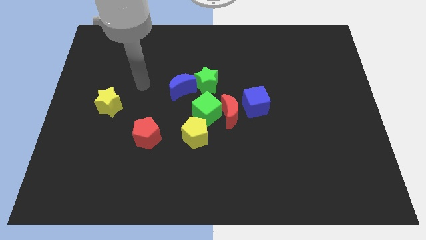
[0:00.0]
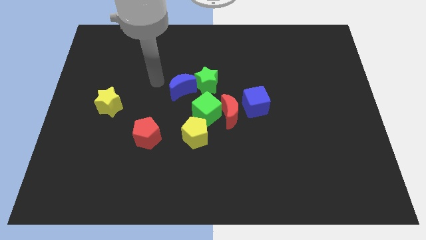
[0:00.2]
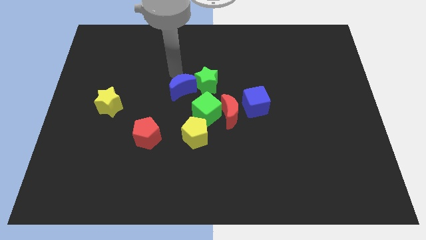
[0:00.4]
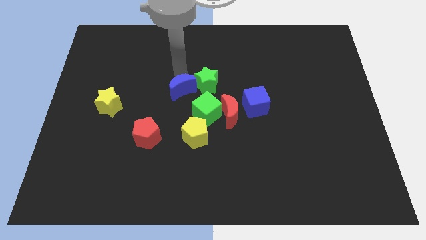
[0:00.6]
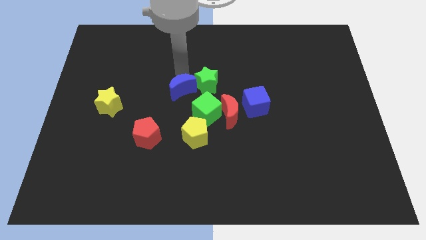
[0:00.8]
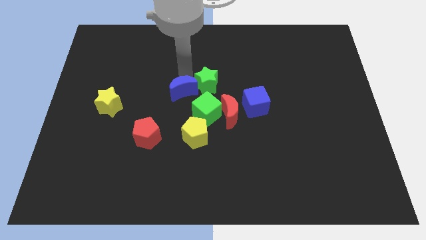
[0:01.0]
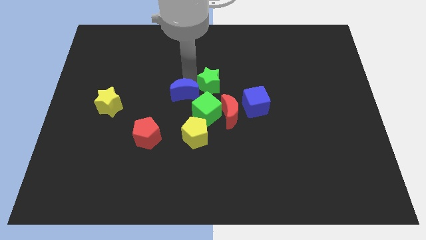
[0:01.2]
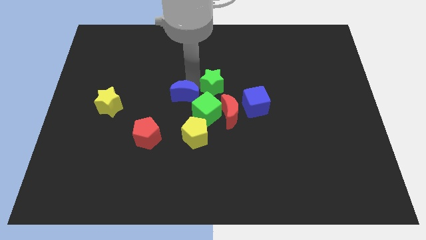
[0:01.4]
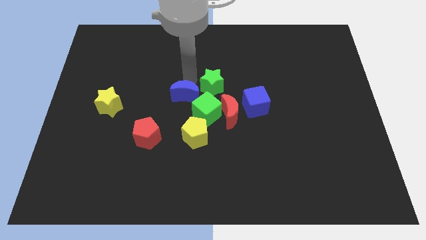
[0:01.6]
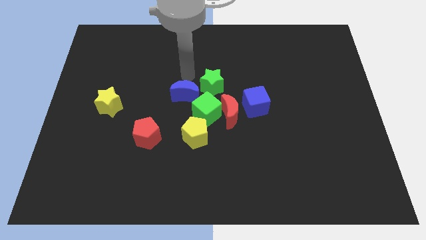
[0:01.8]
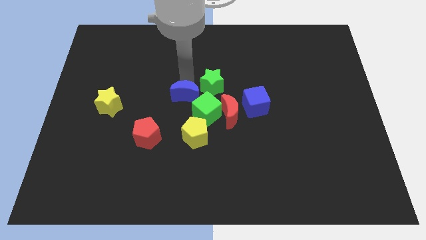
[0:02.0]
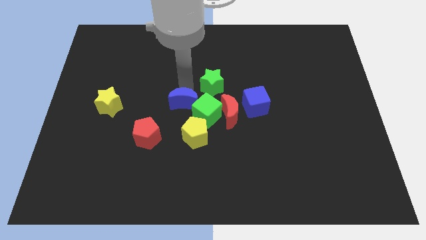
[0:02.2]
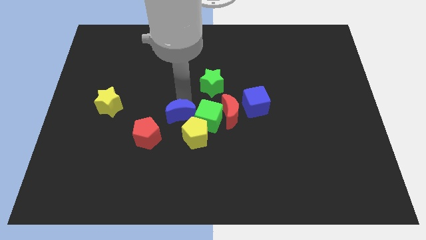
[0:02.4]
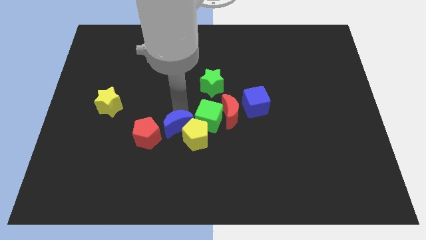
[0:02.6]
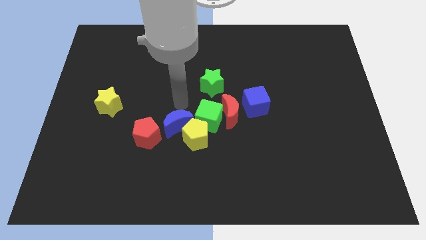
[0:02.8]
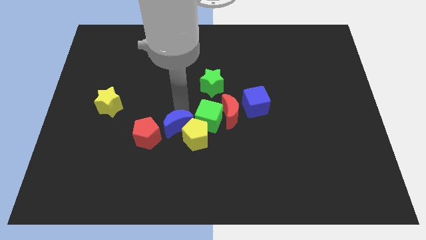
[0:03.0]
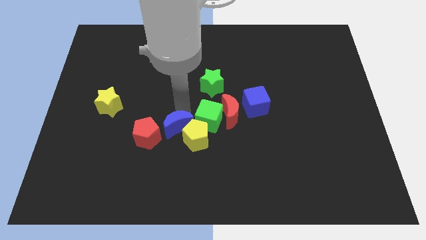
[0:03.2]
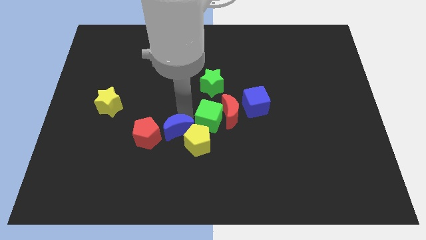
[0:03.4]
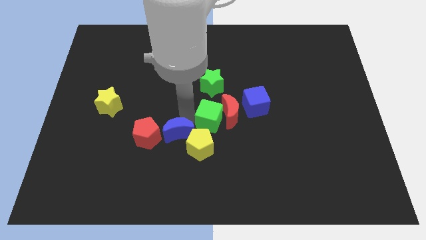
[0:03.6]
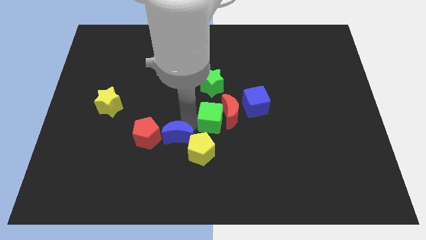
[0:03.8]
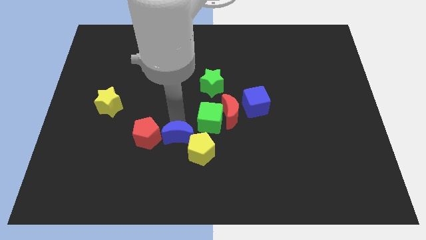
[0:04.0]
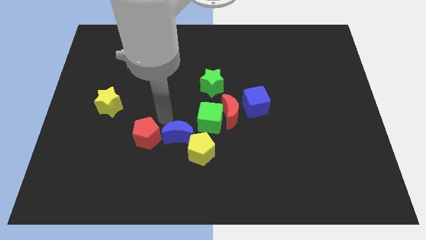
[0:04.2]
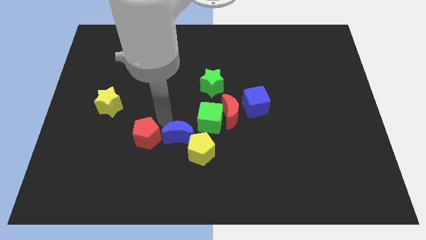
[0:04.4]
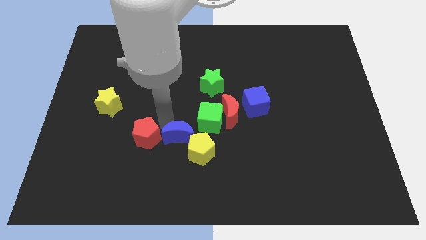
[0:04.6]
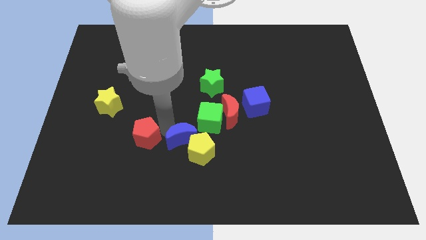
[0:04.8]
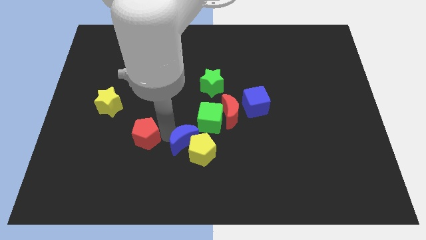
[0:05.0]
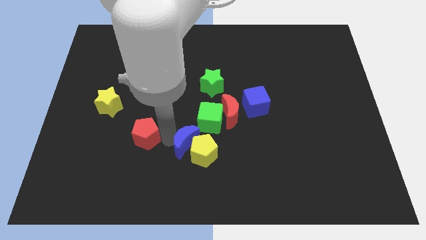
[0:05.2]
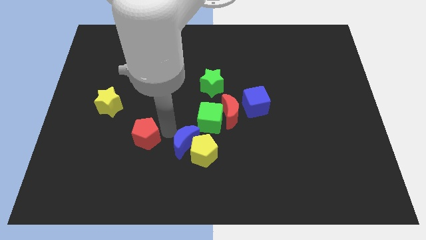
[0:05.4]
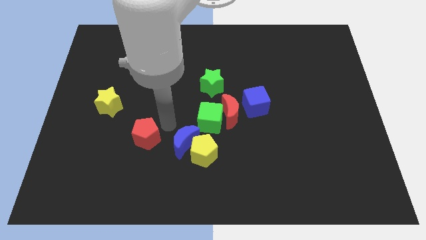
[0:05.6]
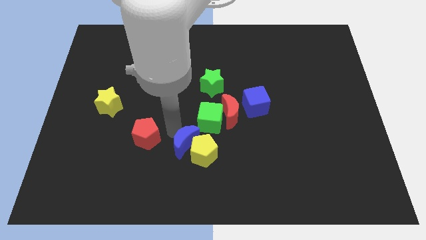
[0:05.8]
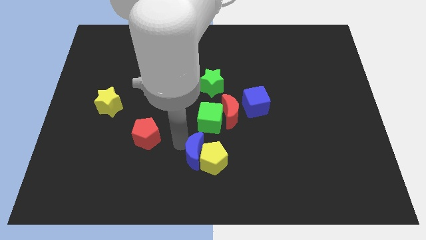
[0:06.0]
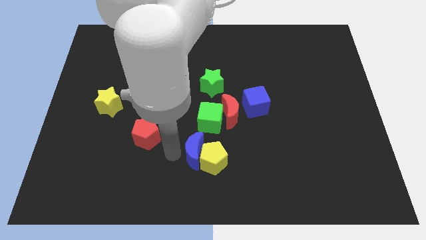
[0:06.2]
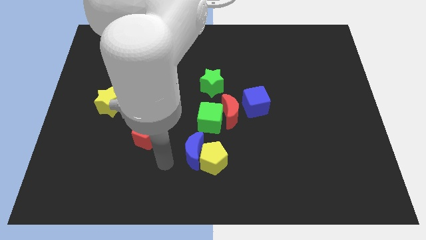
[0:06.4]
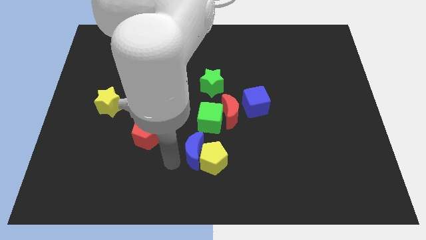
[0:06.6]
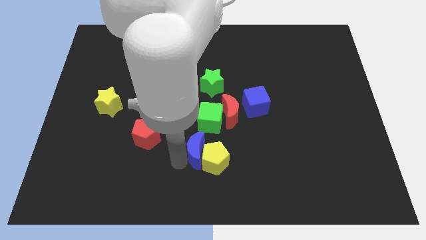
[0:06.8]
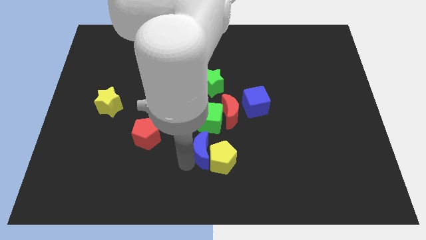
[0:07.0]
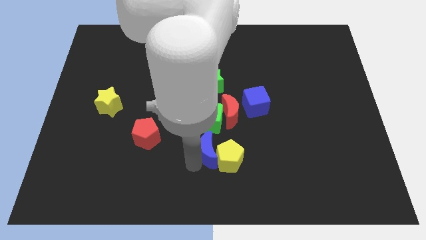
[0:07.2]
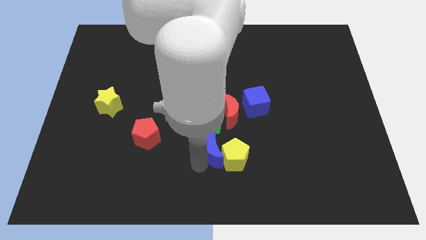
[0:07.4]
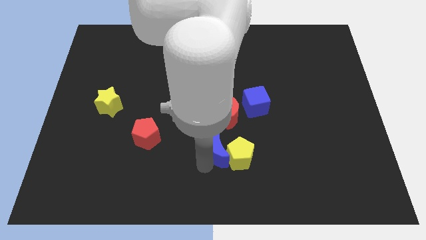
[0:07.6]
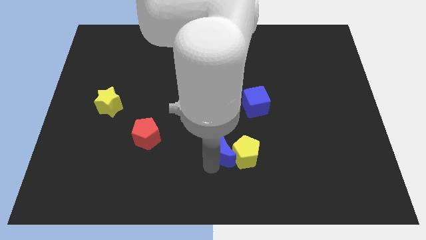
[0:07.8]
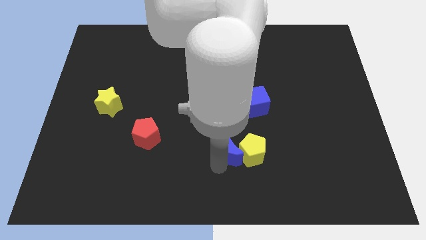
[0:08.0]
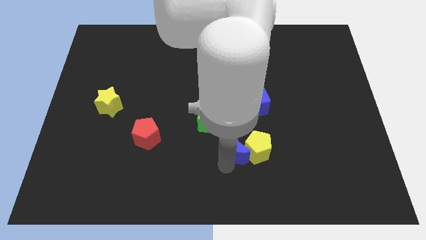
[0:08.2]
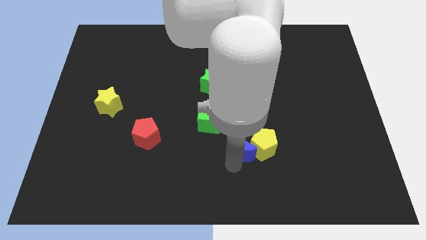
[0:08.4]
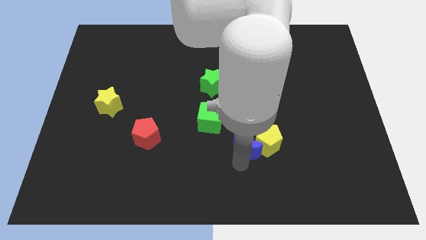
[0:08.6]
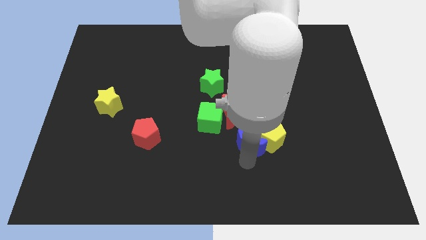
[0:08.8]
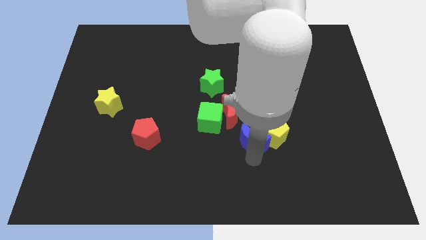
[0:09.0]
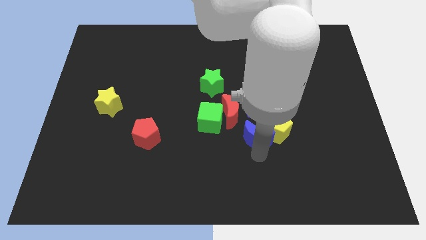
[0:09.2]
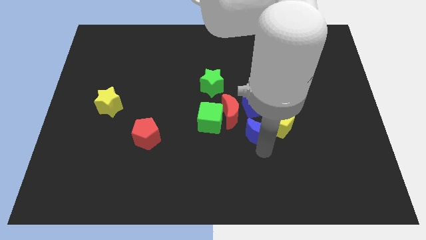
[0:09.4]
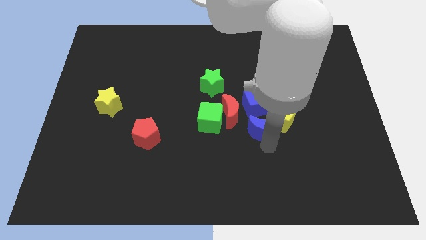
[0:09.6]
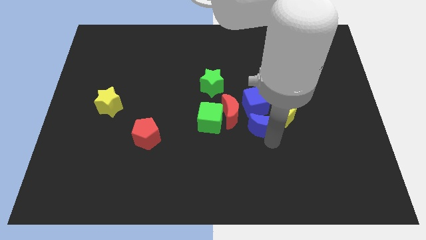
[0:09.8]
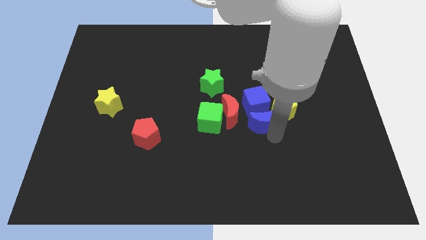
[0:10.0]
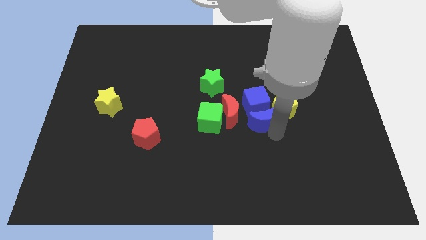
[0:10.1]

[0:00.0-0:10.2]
move the blue moon to the bottom left side of the blue cube

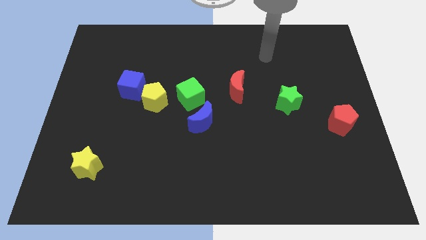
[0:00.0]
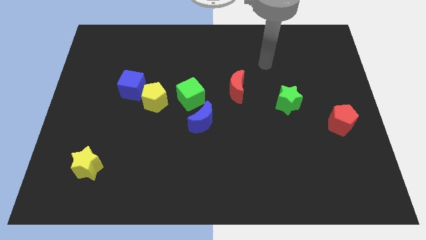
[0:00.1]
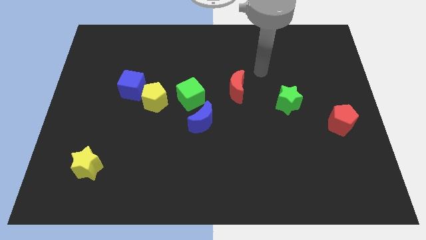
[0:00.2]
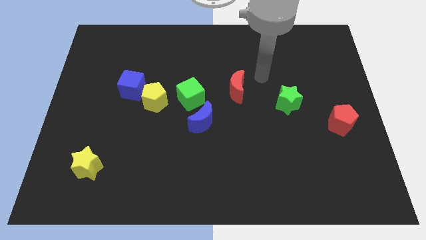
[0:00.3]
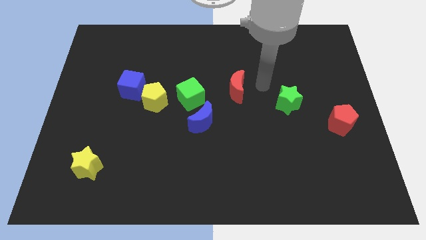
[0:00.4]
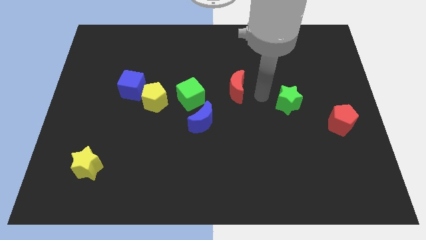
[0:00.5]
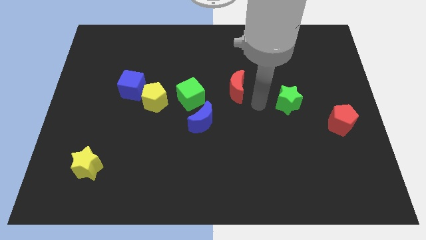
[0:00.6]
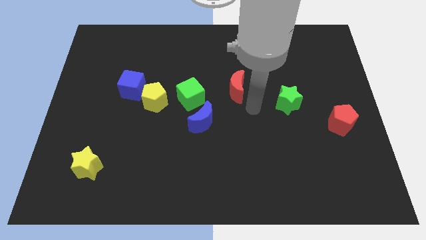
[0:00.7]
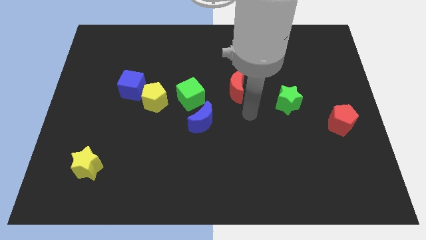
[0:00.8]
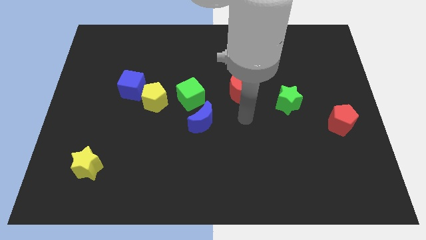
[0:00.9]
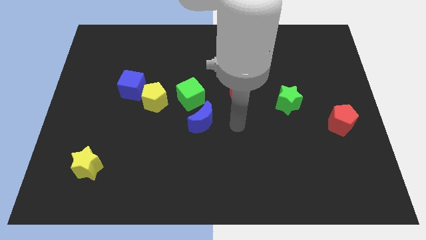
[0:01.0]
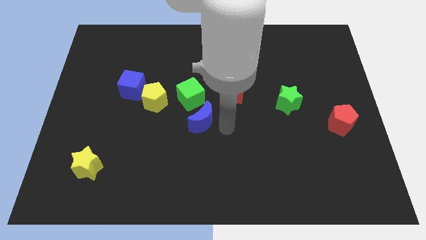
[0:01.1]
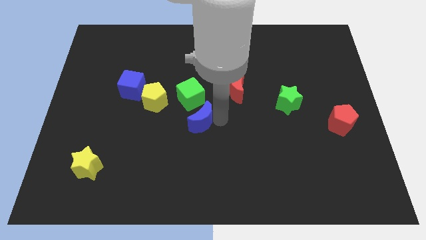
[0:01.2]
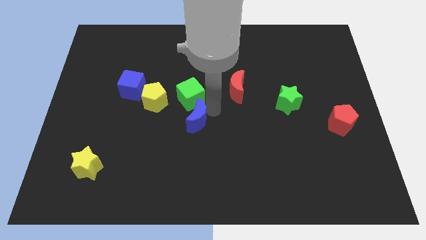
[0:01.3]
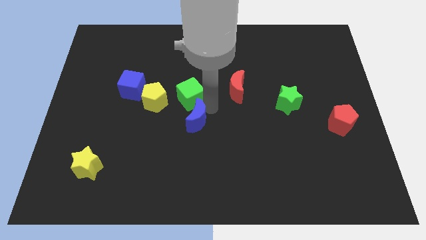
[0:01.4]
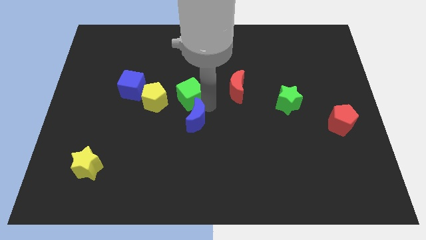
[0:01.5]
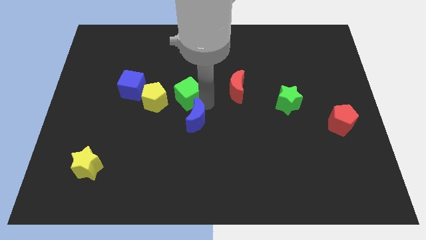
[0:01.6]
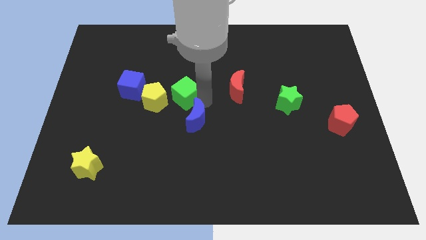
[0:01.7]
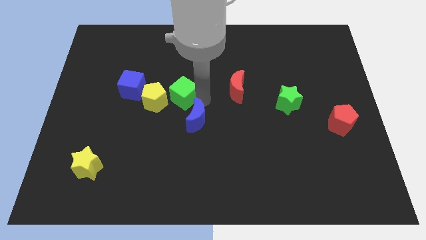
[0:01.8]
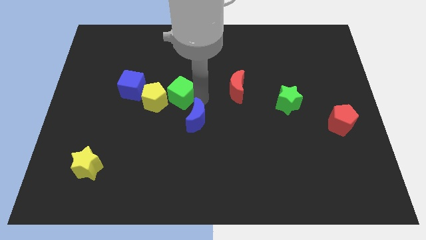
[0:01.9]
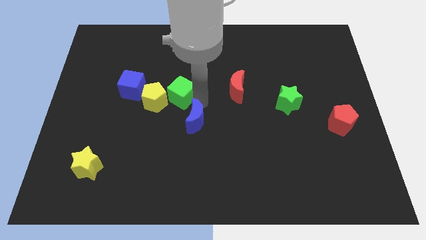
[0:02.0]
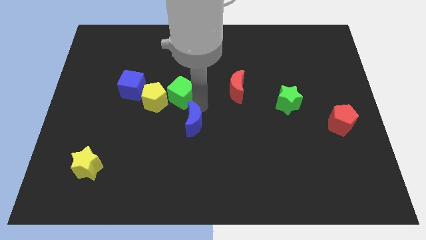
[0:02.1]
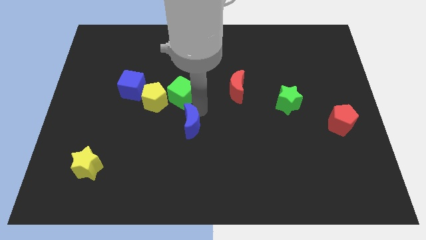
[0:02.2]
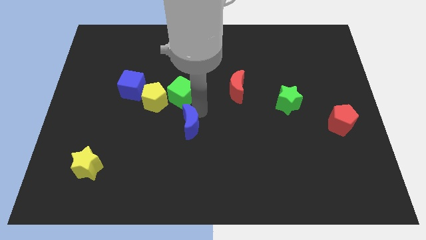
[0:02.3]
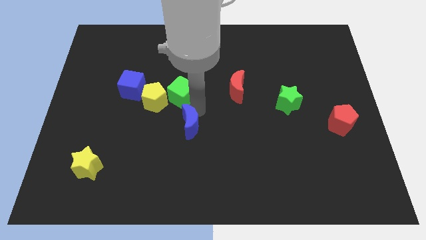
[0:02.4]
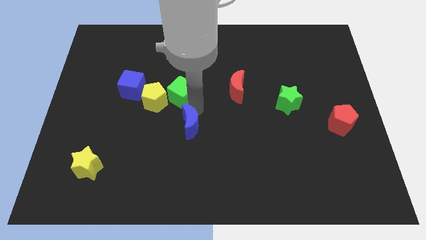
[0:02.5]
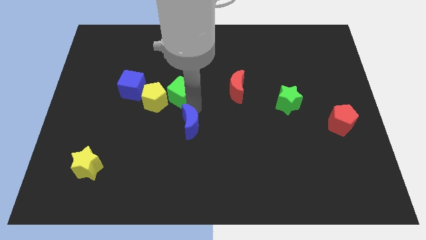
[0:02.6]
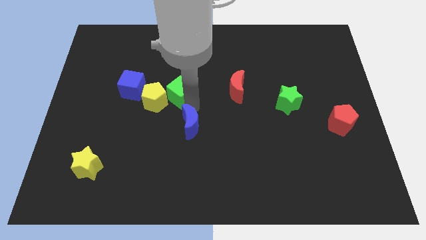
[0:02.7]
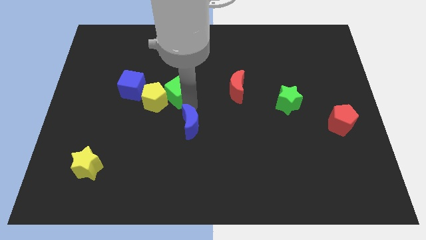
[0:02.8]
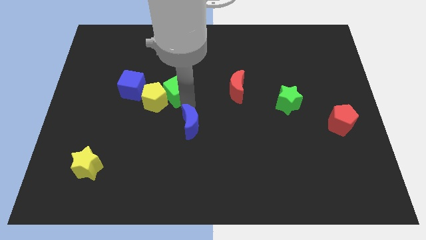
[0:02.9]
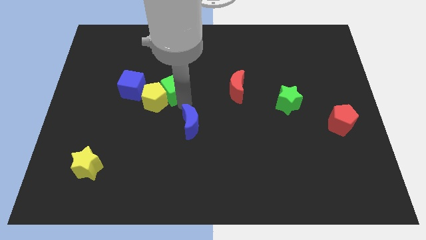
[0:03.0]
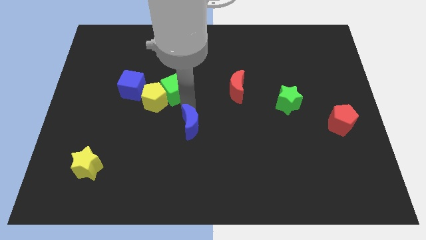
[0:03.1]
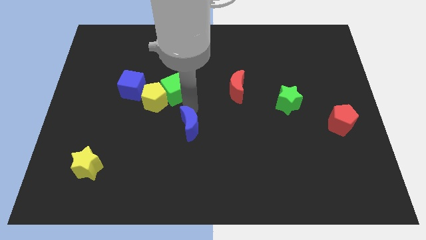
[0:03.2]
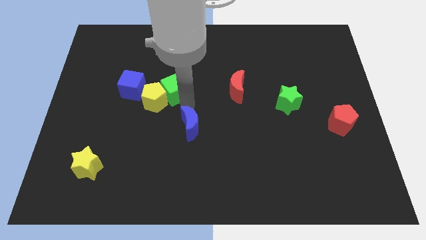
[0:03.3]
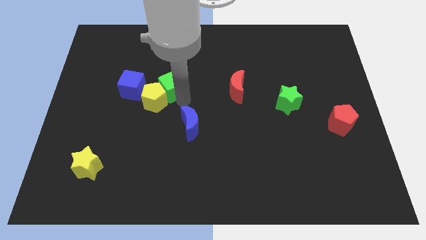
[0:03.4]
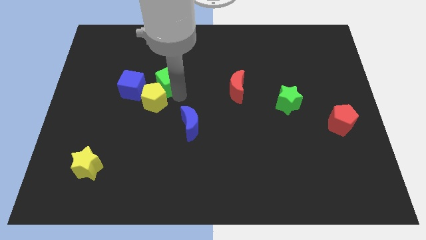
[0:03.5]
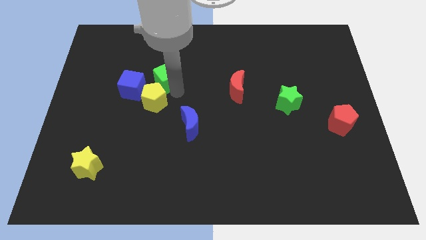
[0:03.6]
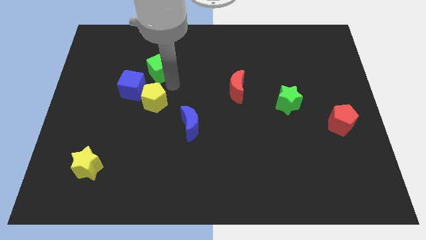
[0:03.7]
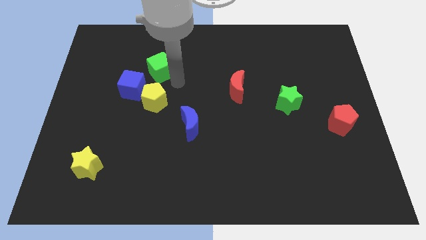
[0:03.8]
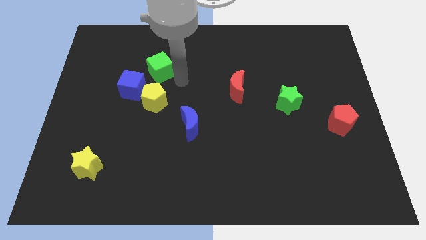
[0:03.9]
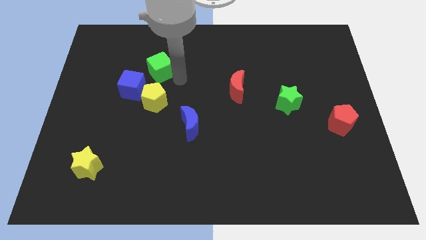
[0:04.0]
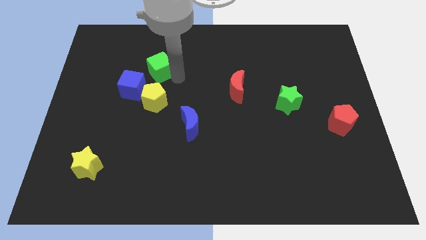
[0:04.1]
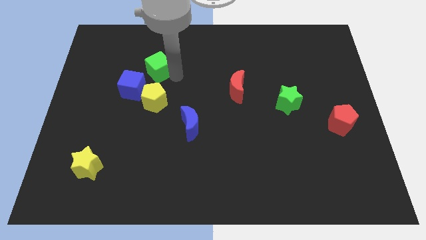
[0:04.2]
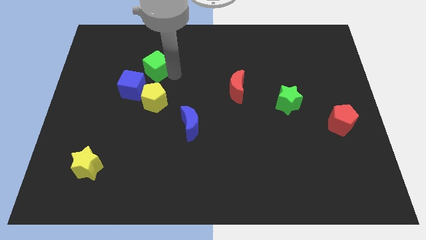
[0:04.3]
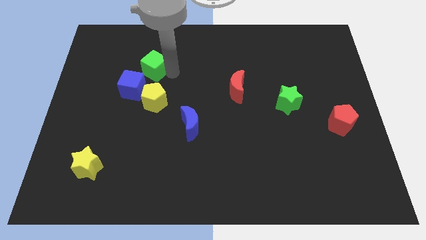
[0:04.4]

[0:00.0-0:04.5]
put the green cube above the blue cube
